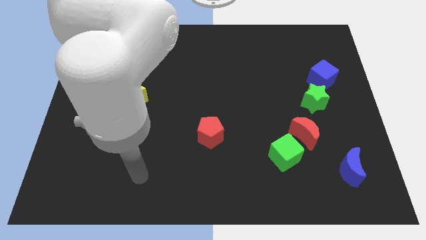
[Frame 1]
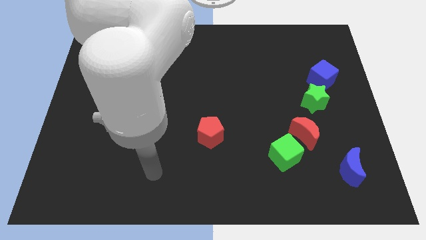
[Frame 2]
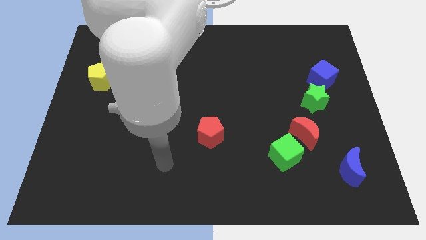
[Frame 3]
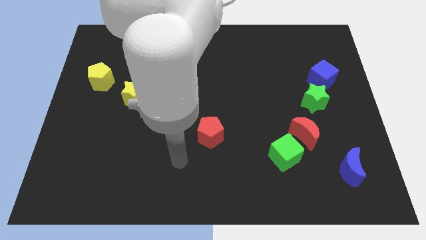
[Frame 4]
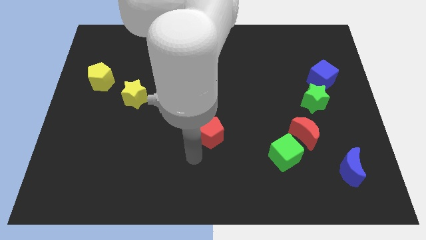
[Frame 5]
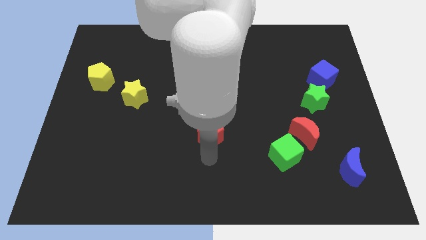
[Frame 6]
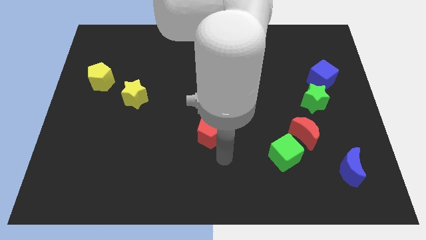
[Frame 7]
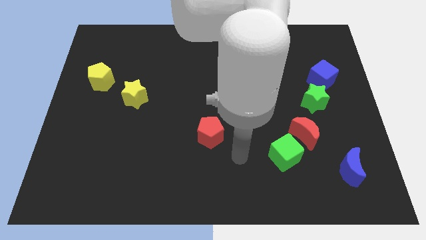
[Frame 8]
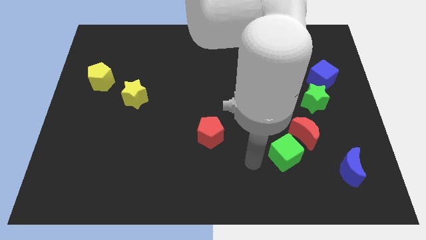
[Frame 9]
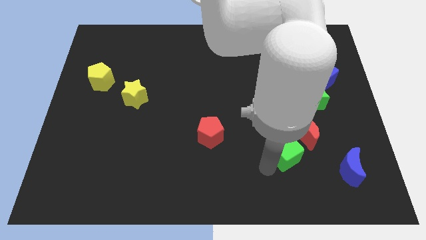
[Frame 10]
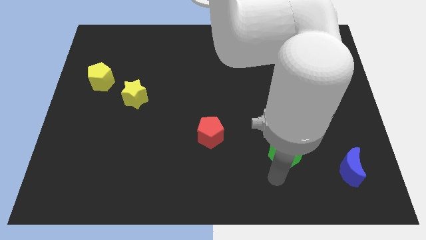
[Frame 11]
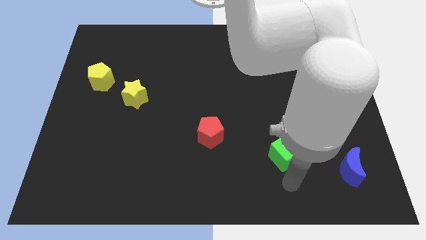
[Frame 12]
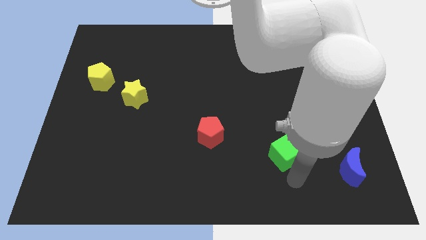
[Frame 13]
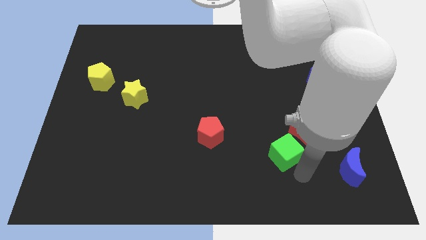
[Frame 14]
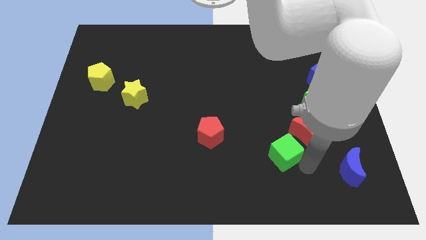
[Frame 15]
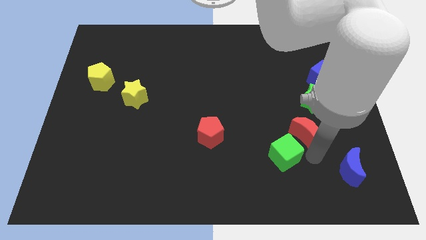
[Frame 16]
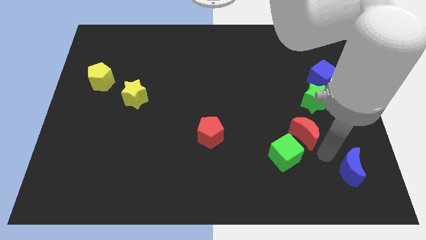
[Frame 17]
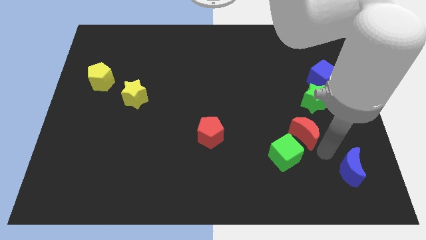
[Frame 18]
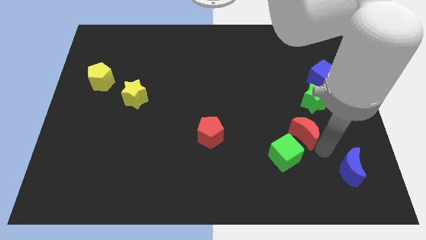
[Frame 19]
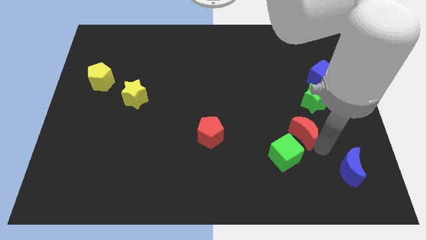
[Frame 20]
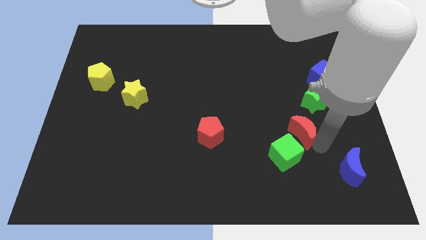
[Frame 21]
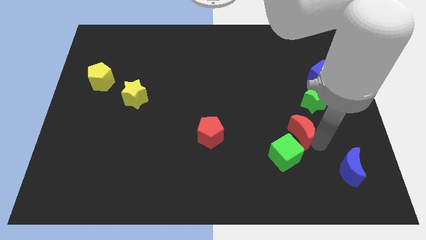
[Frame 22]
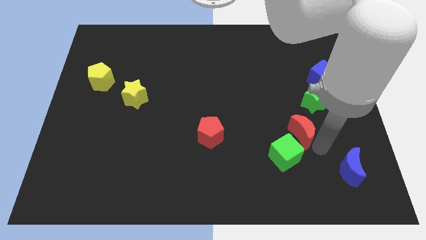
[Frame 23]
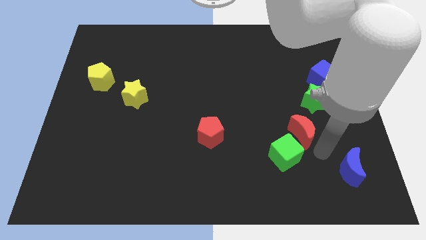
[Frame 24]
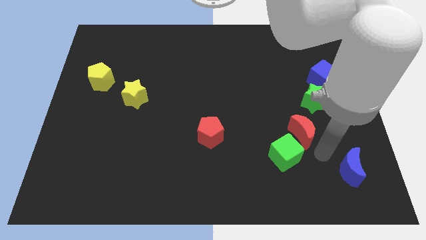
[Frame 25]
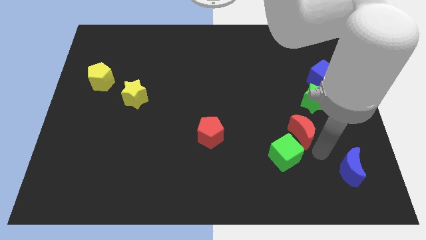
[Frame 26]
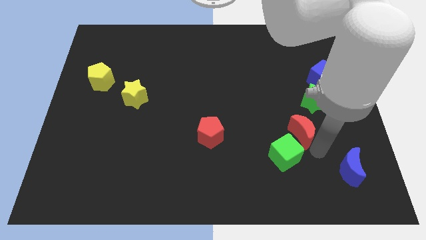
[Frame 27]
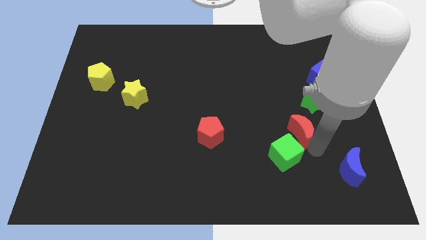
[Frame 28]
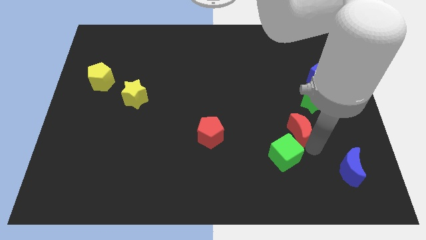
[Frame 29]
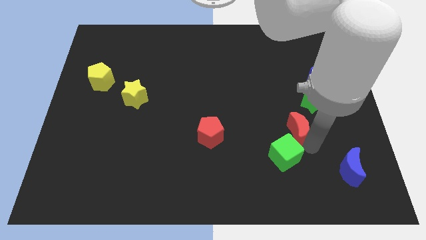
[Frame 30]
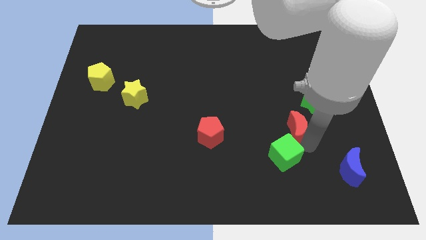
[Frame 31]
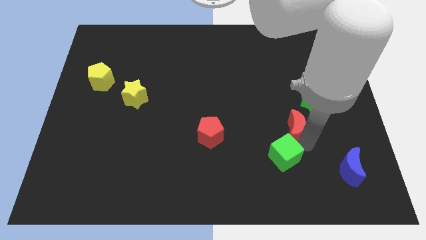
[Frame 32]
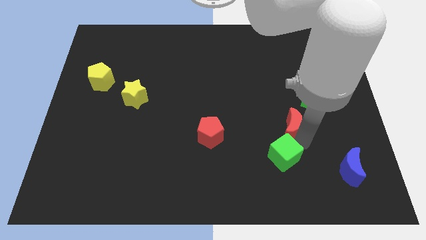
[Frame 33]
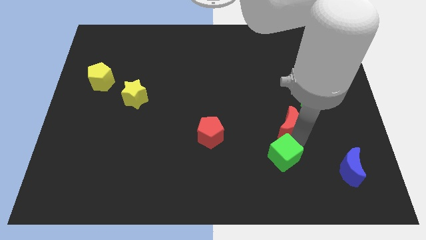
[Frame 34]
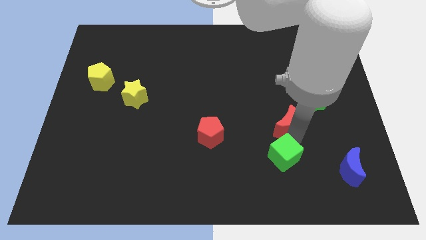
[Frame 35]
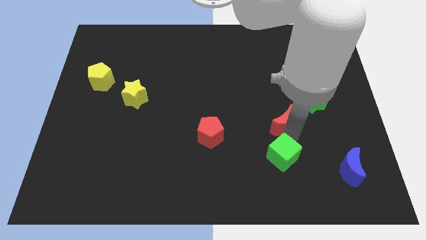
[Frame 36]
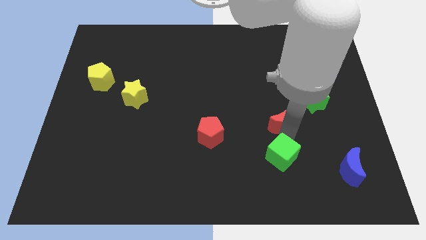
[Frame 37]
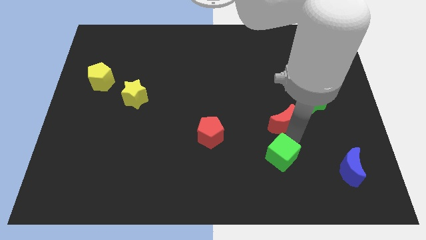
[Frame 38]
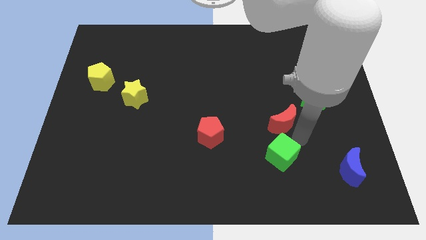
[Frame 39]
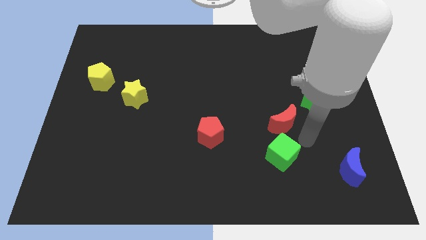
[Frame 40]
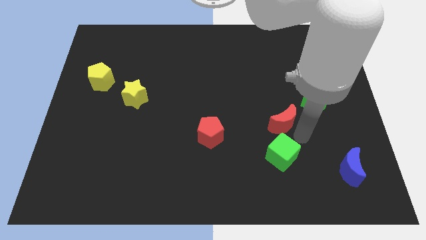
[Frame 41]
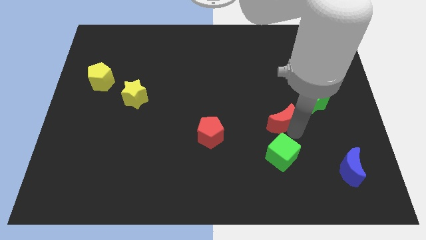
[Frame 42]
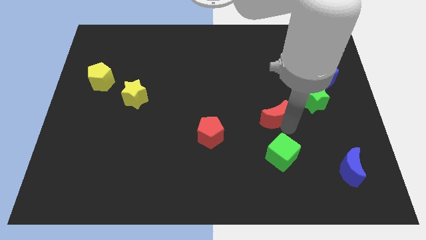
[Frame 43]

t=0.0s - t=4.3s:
move the red moon a bit diagonally upwards and left

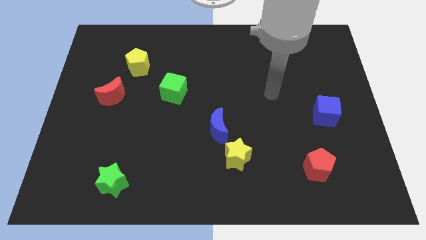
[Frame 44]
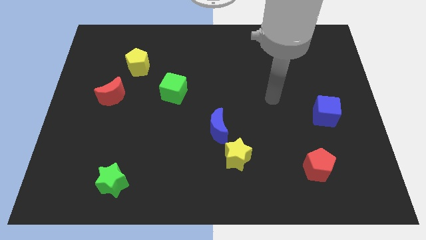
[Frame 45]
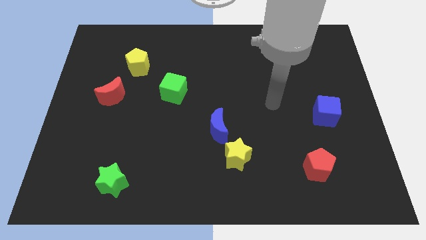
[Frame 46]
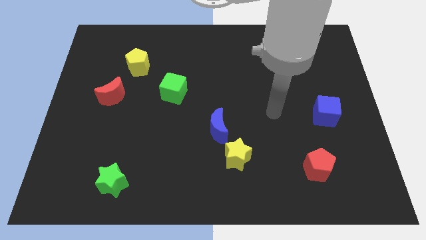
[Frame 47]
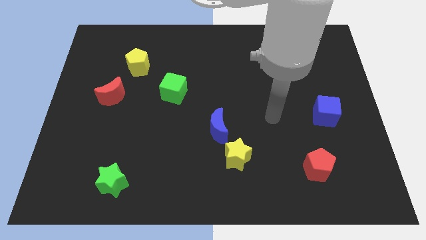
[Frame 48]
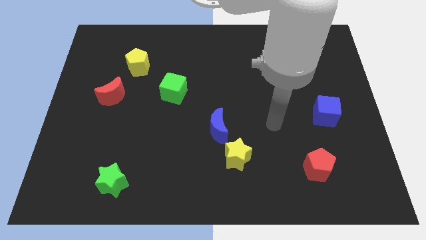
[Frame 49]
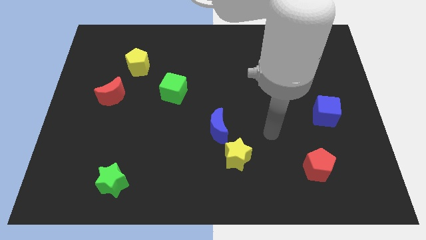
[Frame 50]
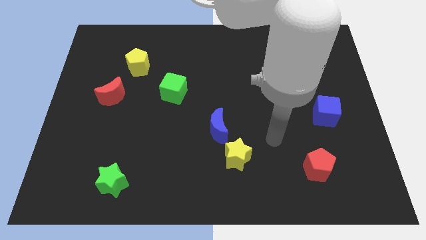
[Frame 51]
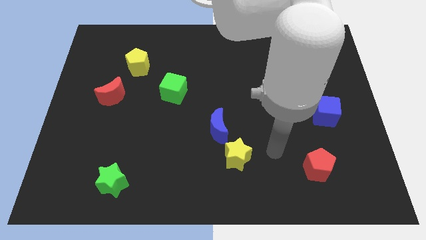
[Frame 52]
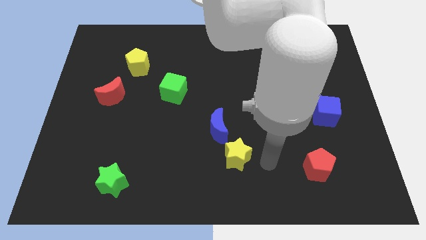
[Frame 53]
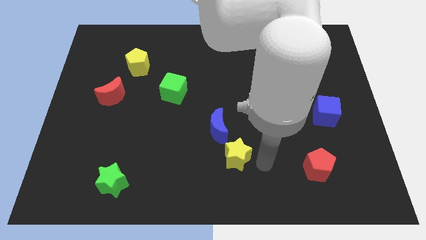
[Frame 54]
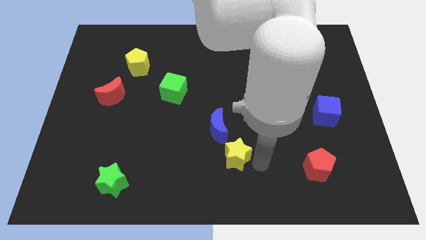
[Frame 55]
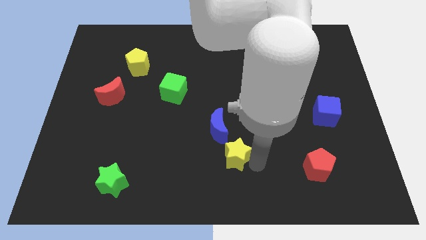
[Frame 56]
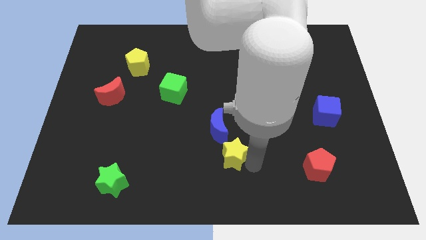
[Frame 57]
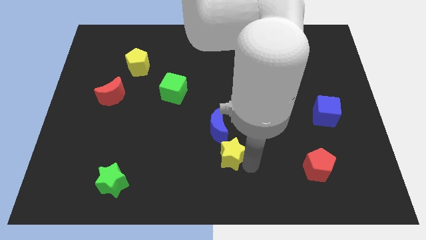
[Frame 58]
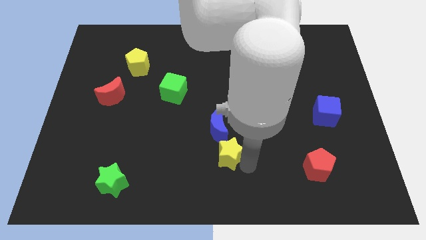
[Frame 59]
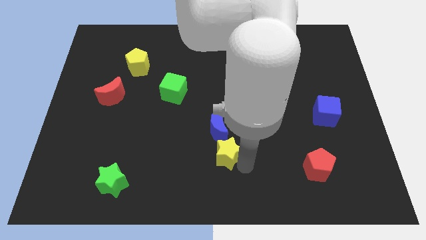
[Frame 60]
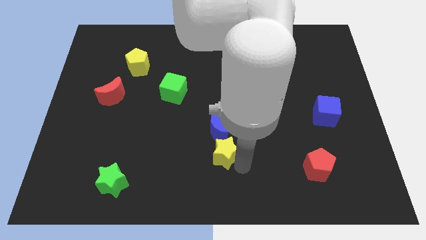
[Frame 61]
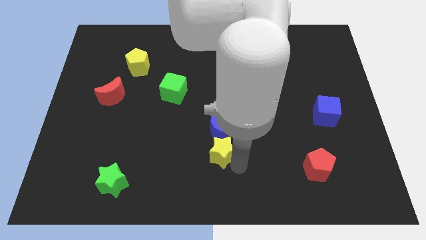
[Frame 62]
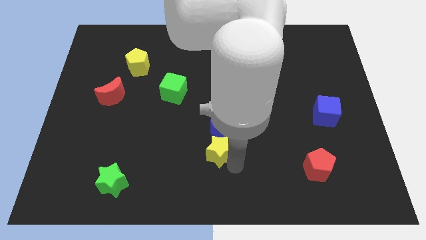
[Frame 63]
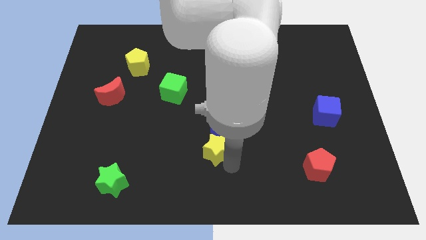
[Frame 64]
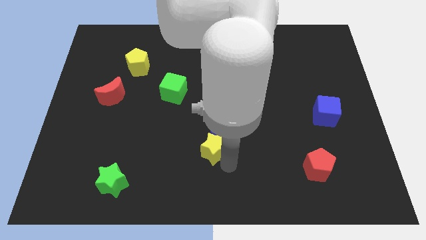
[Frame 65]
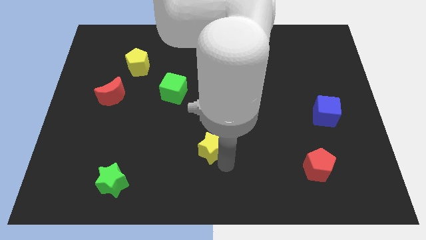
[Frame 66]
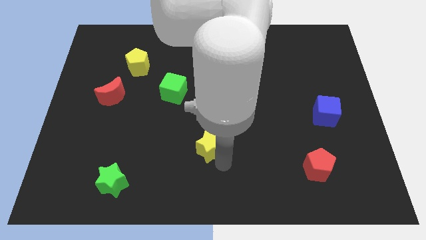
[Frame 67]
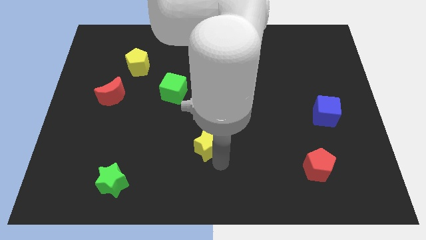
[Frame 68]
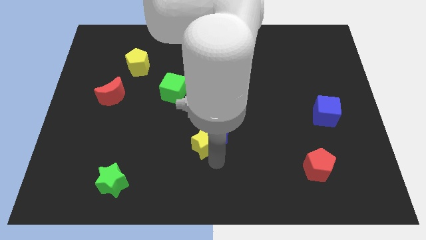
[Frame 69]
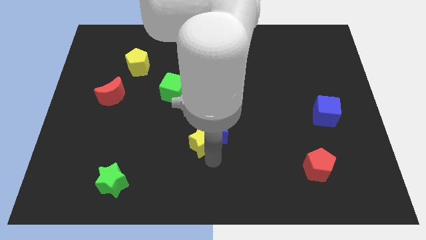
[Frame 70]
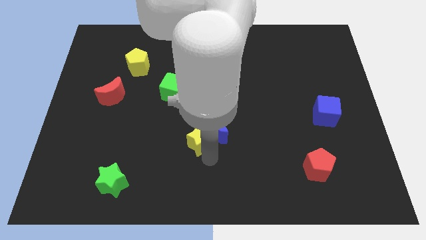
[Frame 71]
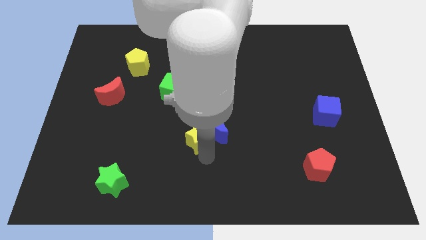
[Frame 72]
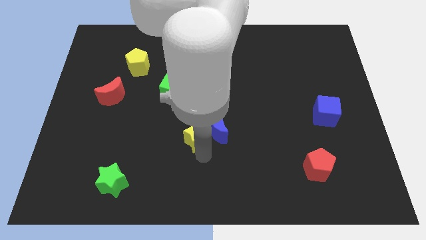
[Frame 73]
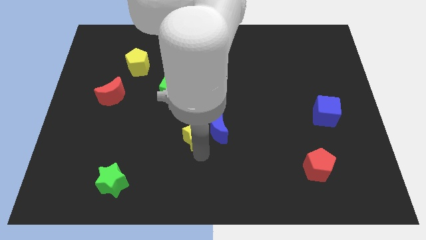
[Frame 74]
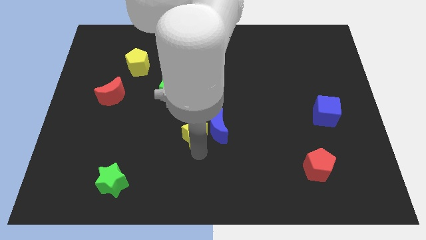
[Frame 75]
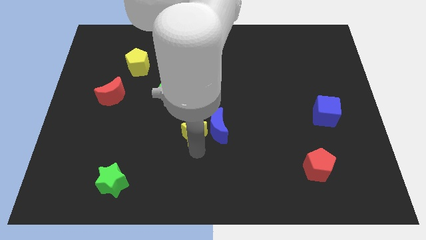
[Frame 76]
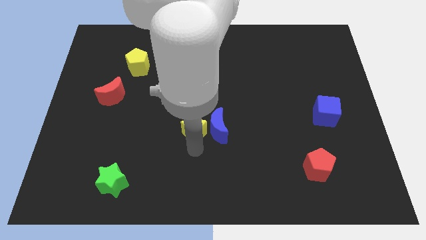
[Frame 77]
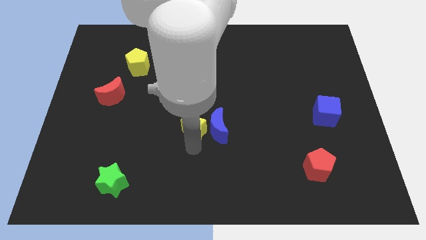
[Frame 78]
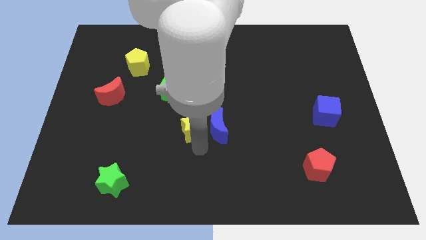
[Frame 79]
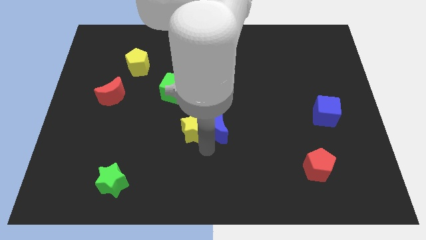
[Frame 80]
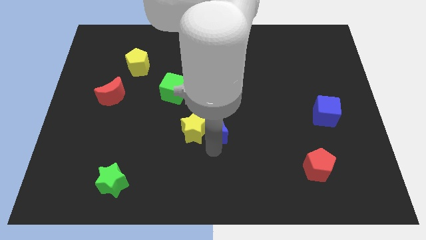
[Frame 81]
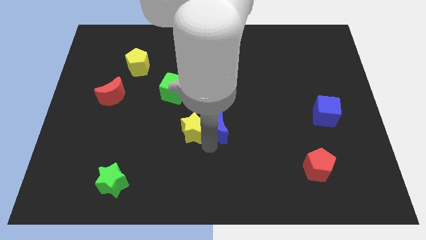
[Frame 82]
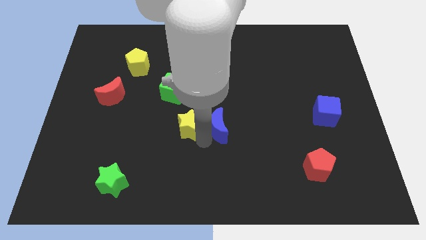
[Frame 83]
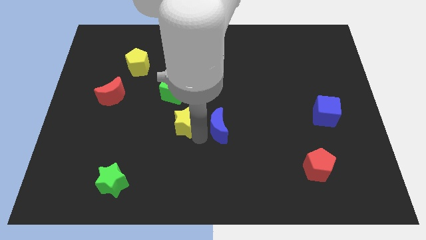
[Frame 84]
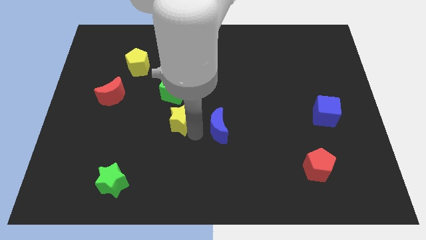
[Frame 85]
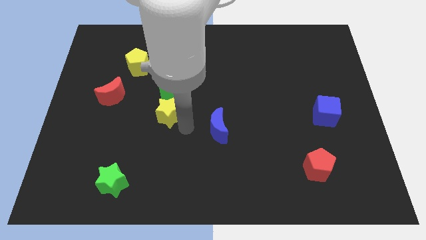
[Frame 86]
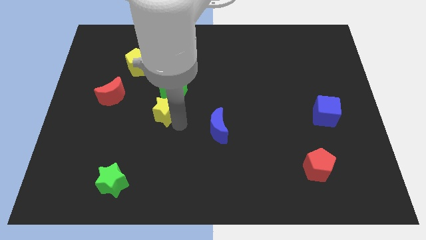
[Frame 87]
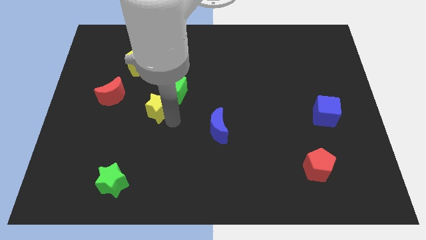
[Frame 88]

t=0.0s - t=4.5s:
slide the yellow star diagonally upwards and left
